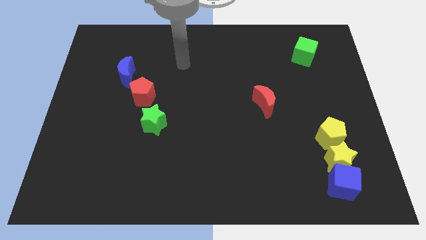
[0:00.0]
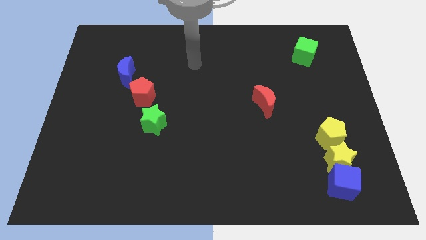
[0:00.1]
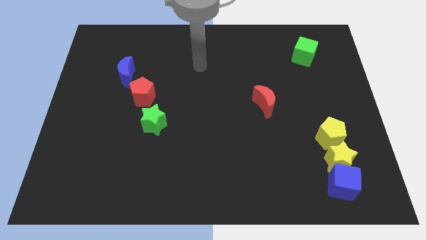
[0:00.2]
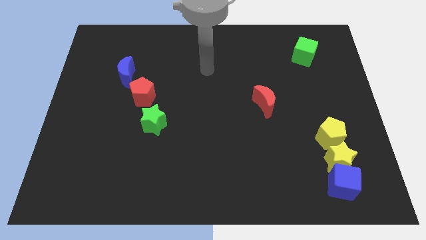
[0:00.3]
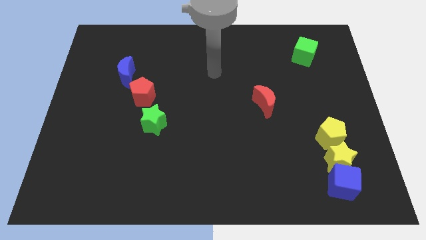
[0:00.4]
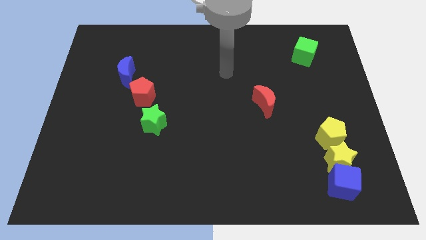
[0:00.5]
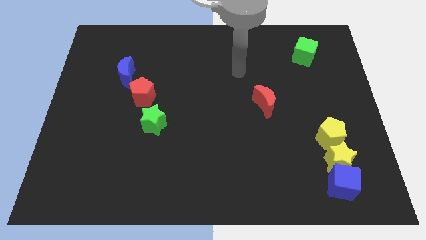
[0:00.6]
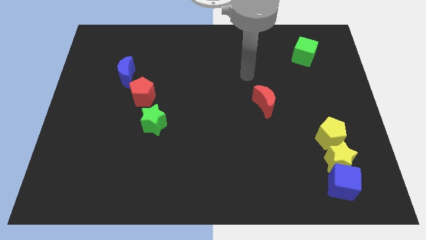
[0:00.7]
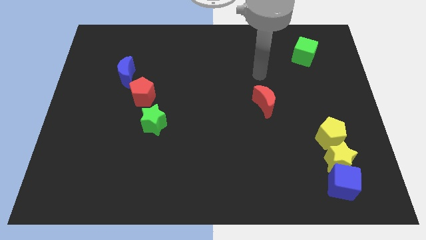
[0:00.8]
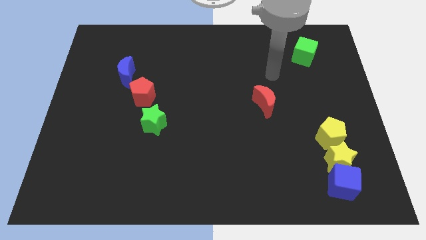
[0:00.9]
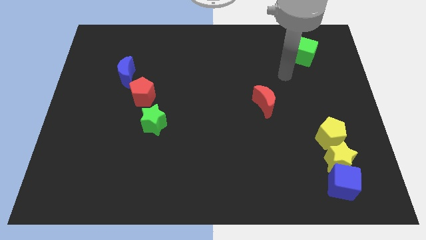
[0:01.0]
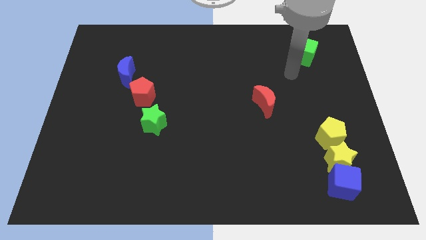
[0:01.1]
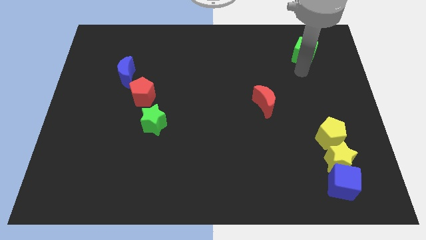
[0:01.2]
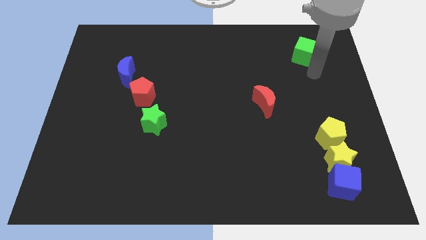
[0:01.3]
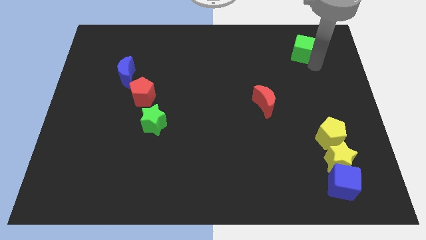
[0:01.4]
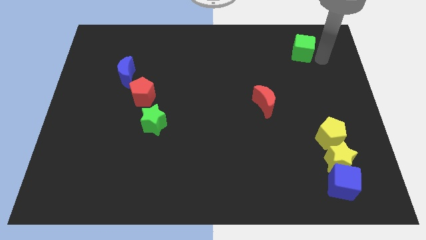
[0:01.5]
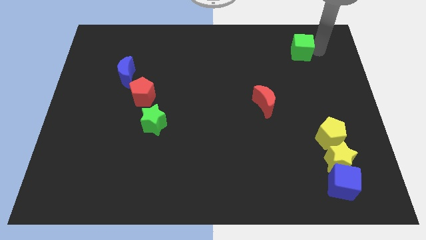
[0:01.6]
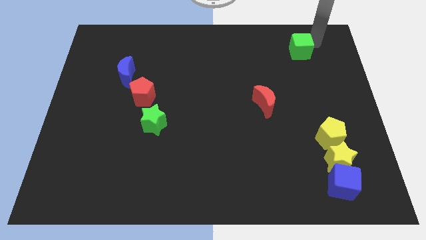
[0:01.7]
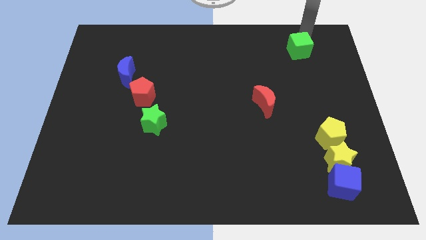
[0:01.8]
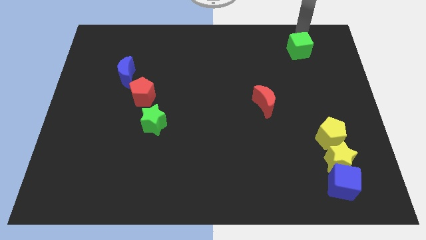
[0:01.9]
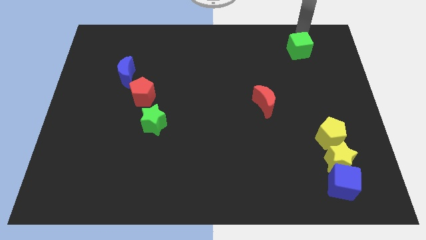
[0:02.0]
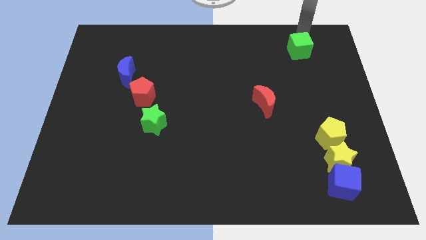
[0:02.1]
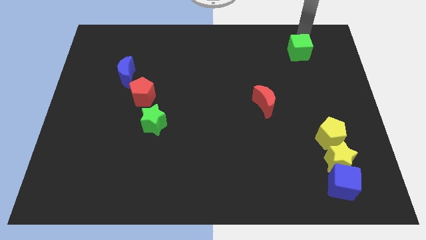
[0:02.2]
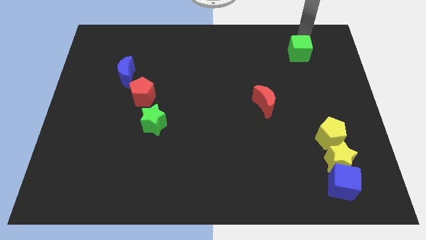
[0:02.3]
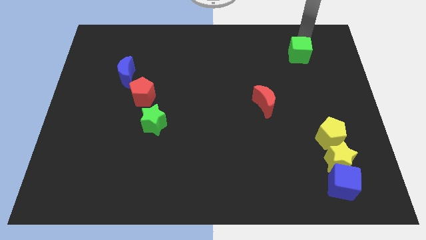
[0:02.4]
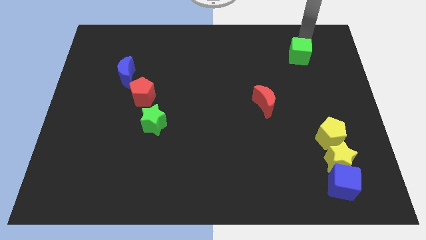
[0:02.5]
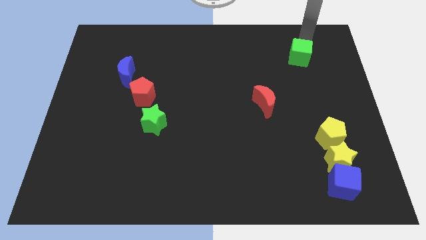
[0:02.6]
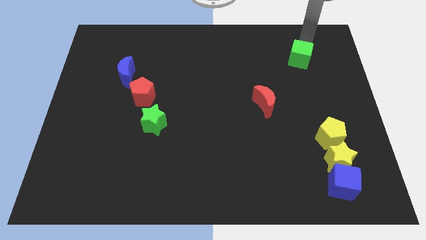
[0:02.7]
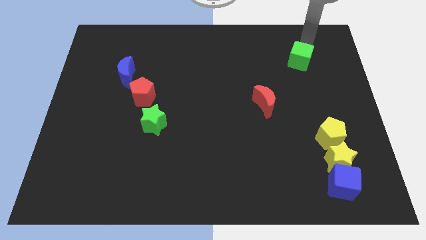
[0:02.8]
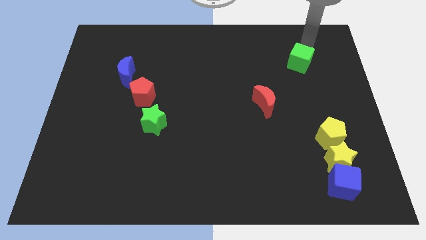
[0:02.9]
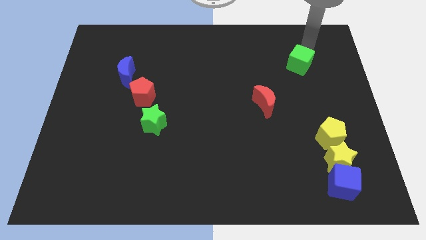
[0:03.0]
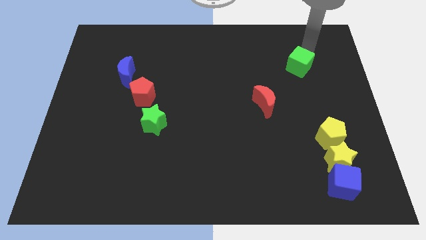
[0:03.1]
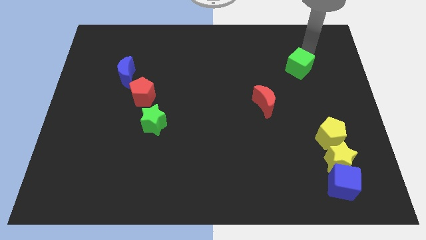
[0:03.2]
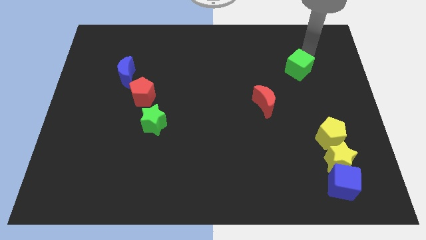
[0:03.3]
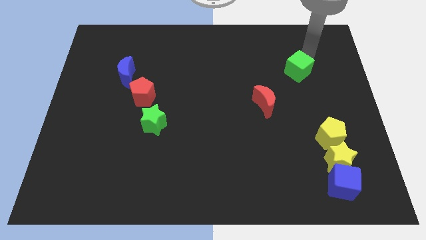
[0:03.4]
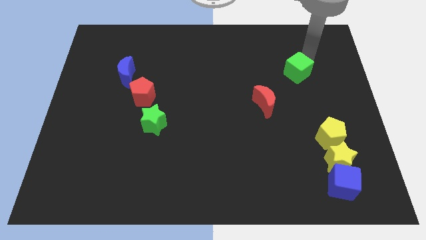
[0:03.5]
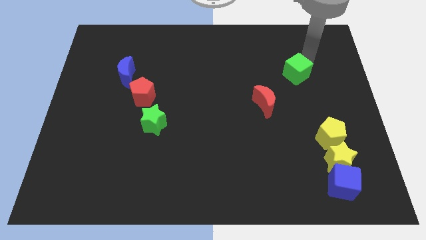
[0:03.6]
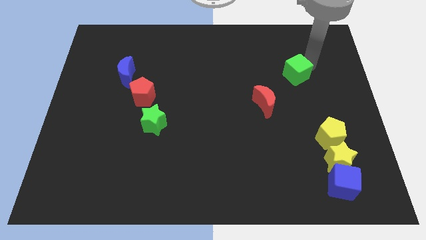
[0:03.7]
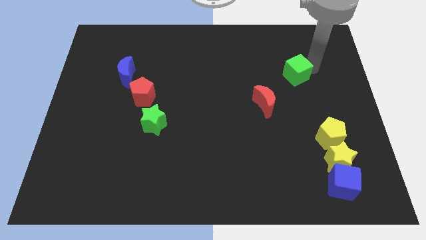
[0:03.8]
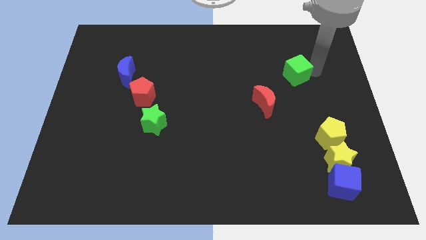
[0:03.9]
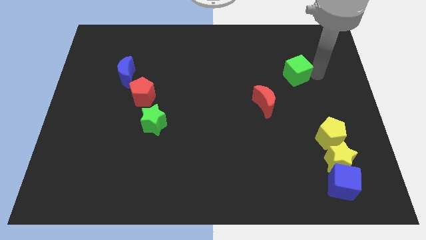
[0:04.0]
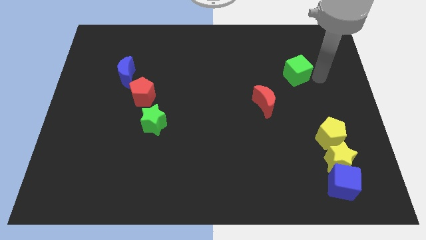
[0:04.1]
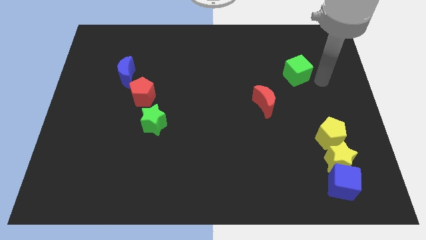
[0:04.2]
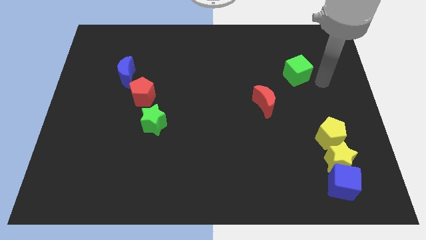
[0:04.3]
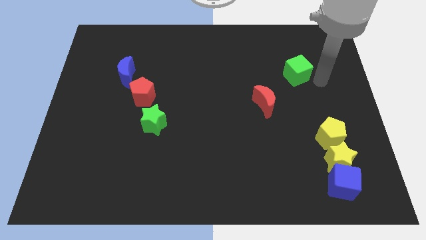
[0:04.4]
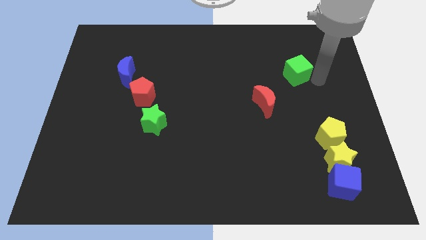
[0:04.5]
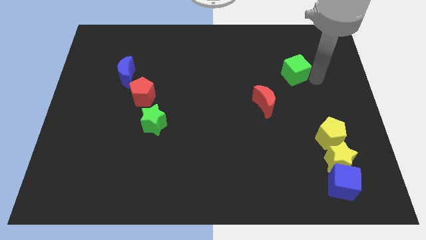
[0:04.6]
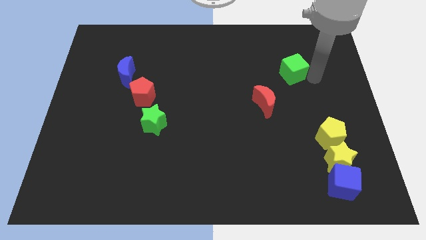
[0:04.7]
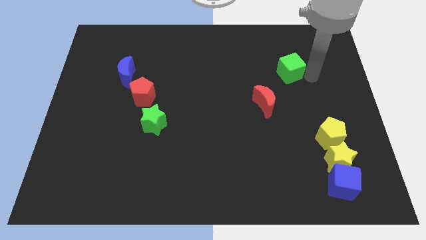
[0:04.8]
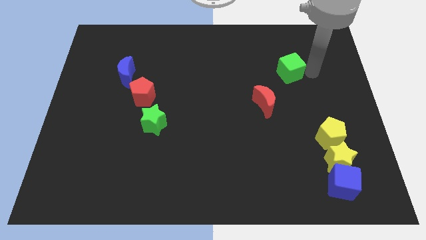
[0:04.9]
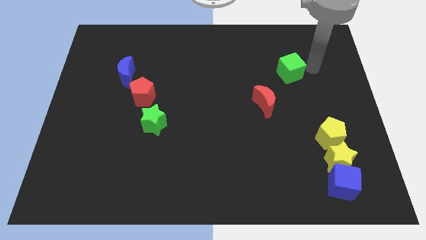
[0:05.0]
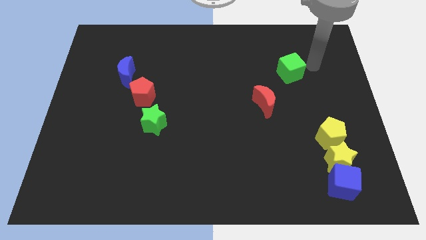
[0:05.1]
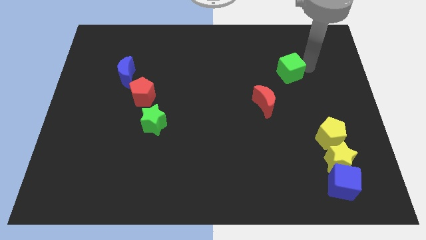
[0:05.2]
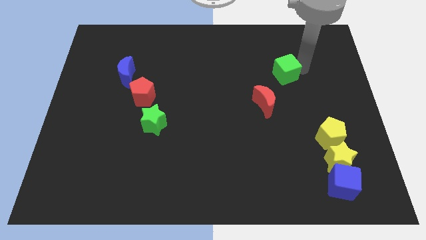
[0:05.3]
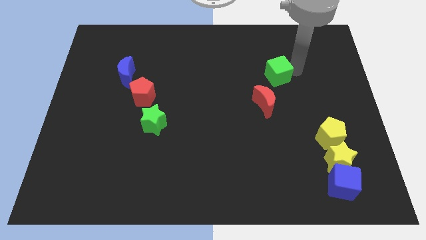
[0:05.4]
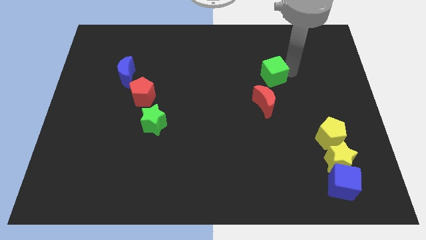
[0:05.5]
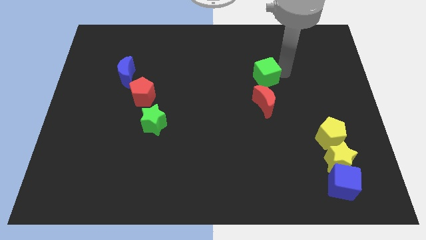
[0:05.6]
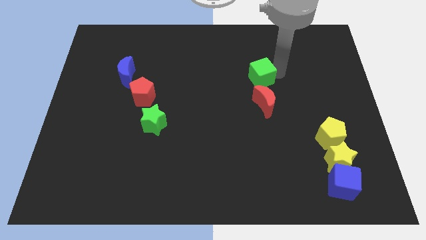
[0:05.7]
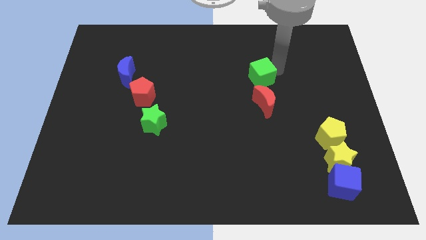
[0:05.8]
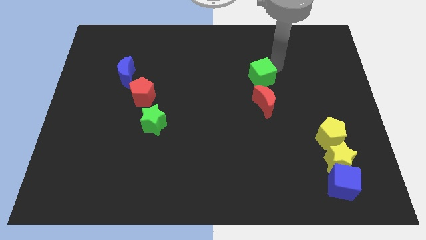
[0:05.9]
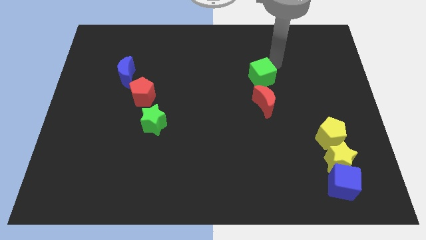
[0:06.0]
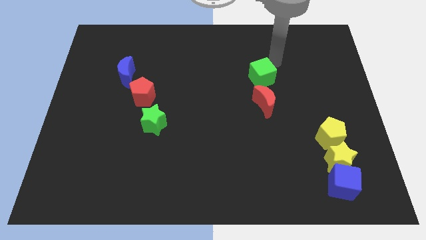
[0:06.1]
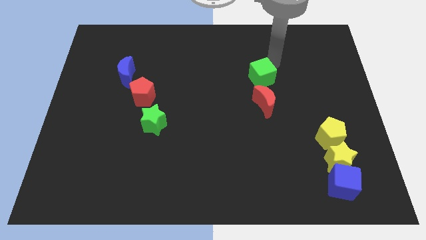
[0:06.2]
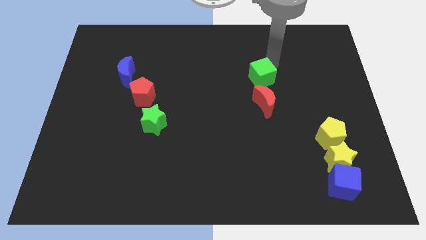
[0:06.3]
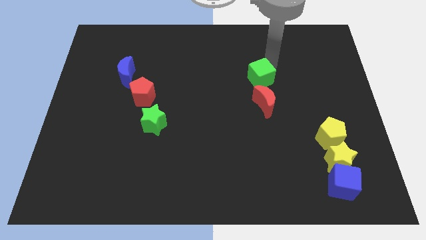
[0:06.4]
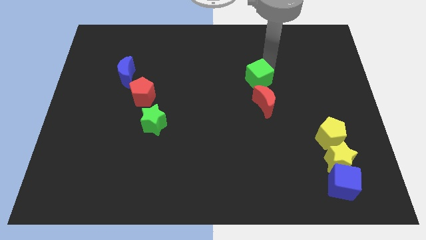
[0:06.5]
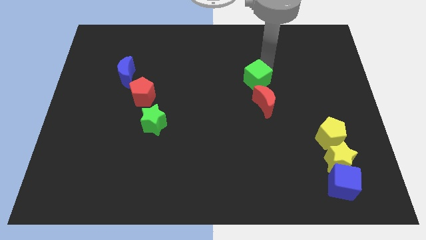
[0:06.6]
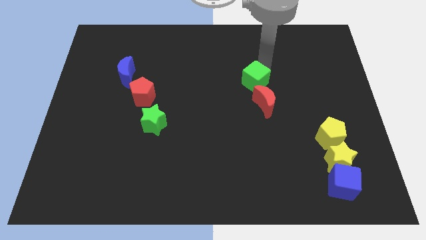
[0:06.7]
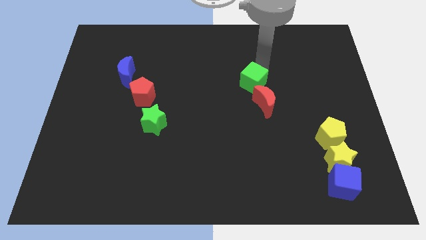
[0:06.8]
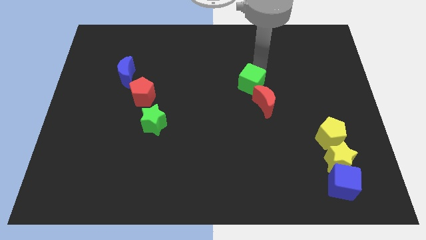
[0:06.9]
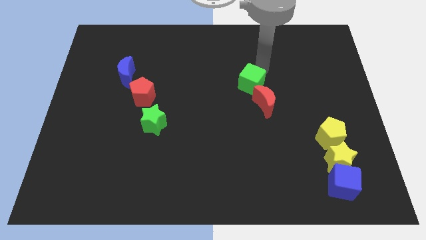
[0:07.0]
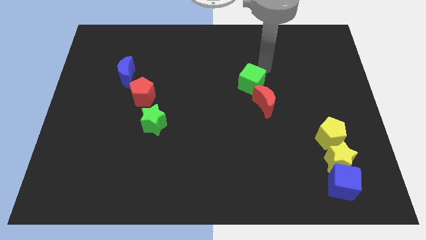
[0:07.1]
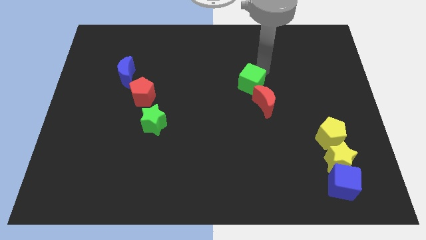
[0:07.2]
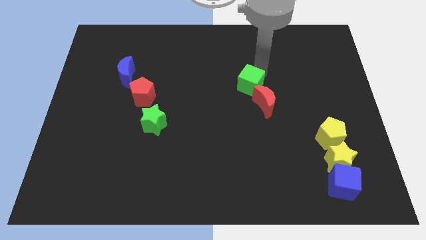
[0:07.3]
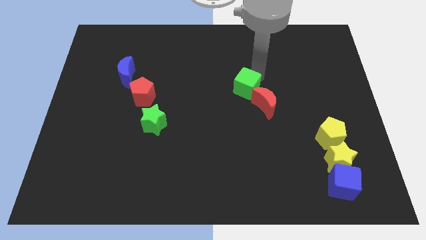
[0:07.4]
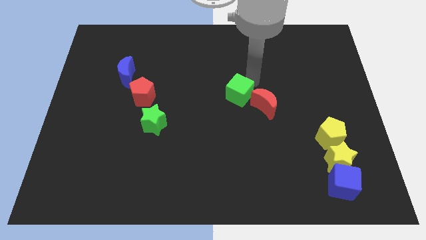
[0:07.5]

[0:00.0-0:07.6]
push the green cube diagonally downwards and to the left

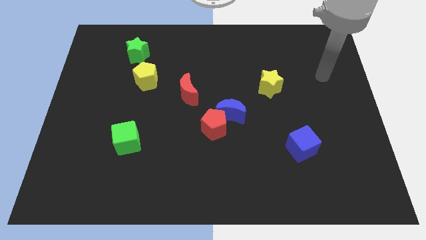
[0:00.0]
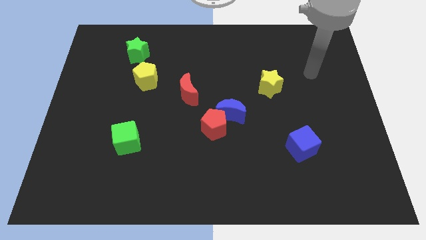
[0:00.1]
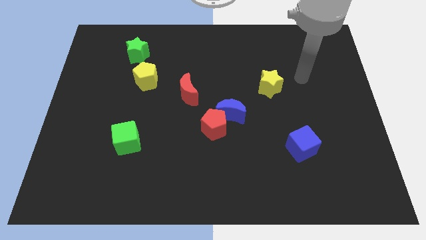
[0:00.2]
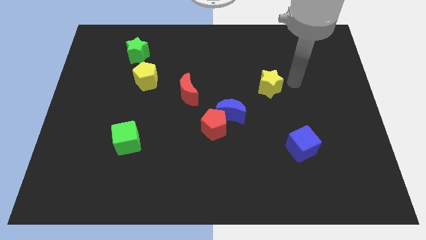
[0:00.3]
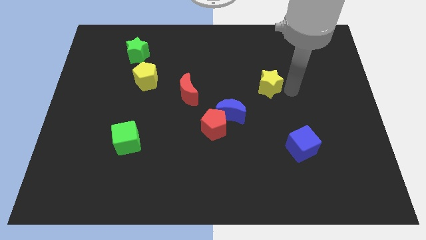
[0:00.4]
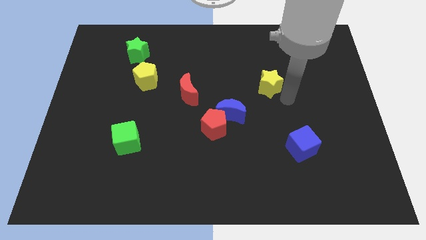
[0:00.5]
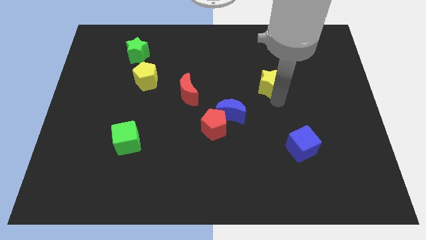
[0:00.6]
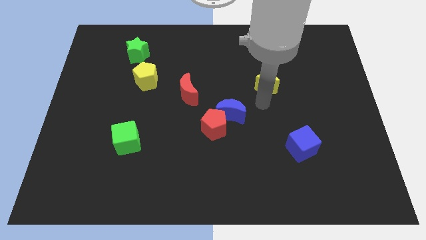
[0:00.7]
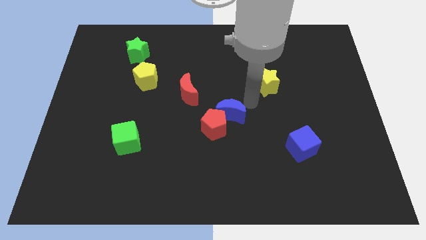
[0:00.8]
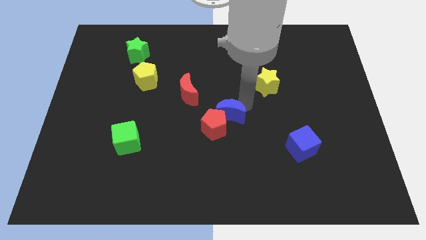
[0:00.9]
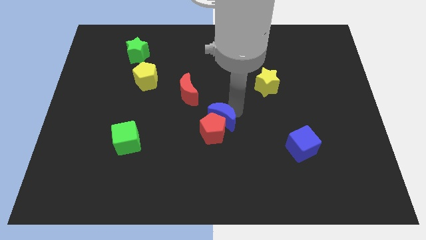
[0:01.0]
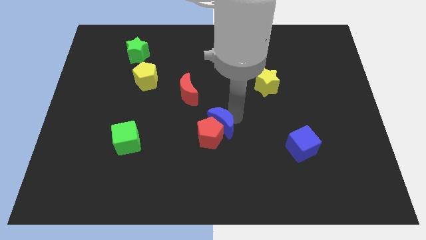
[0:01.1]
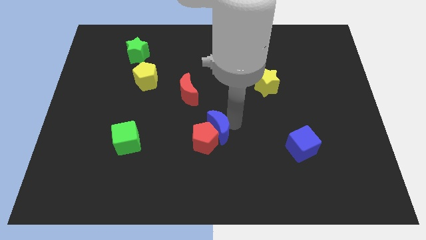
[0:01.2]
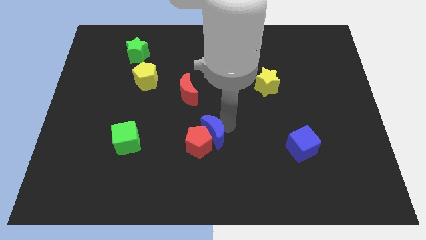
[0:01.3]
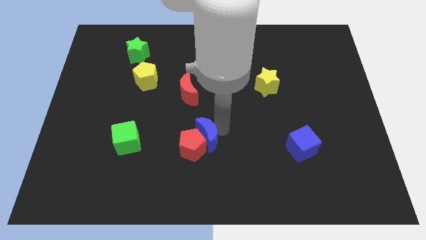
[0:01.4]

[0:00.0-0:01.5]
push the red pentagon downwards and then left somewhat
